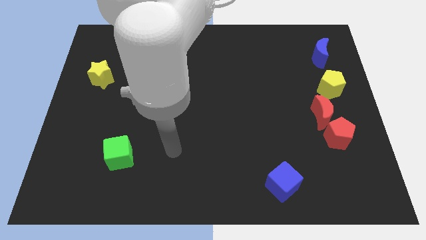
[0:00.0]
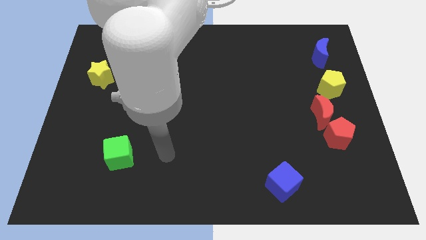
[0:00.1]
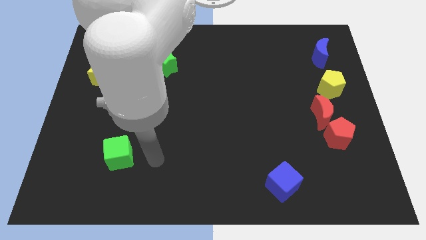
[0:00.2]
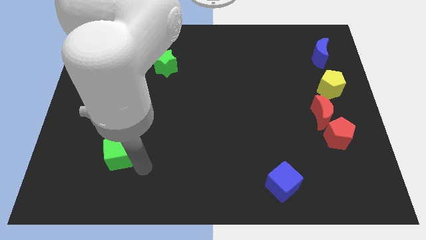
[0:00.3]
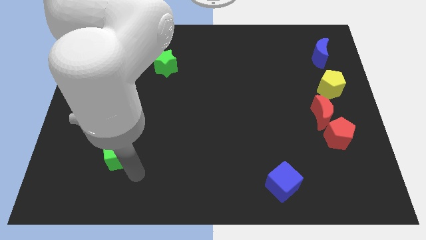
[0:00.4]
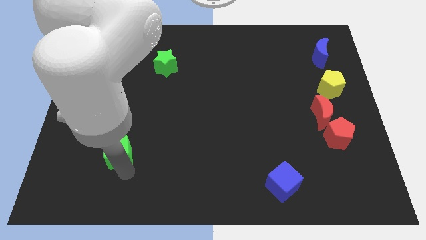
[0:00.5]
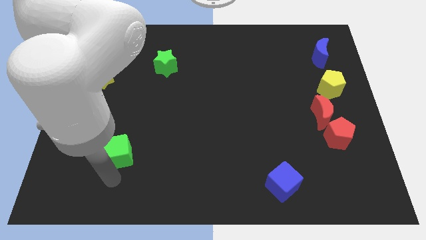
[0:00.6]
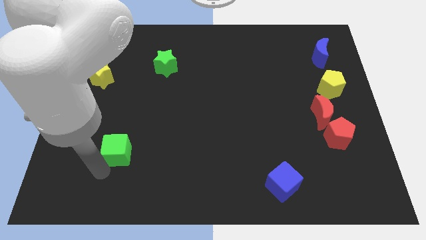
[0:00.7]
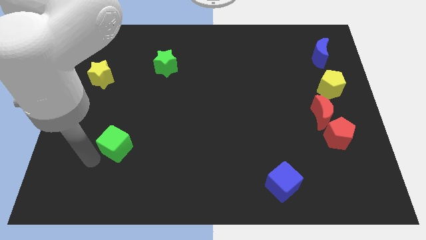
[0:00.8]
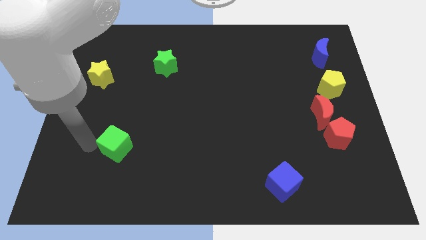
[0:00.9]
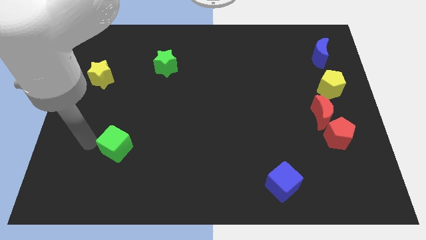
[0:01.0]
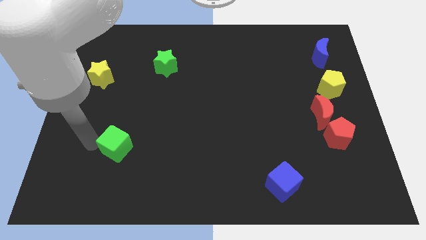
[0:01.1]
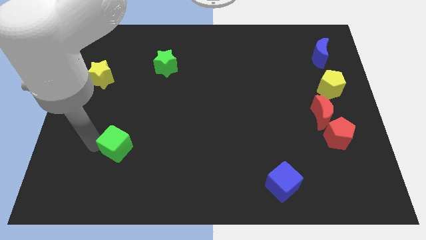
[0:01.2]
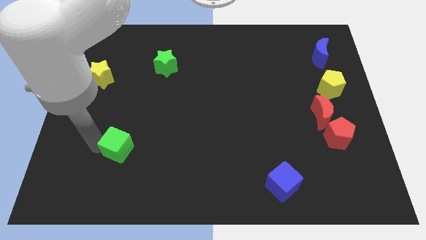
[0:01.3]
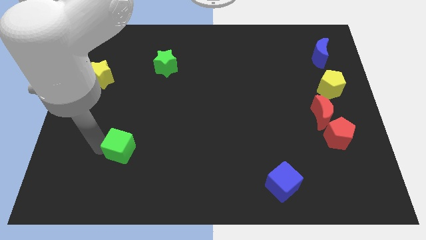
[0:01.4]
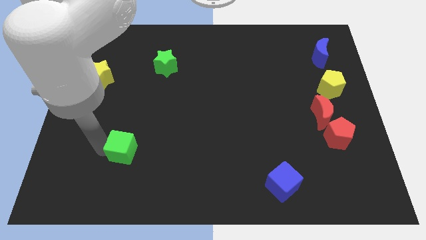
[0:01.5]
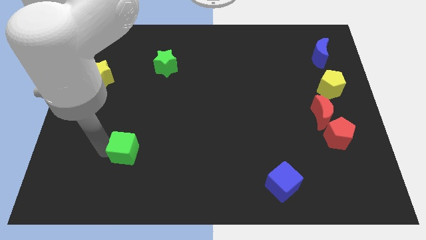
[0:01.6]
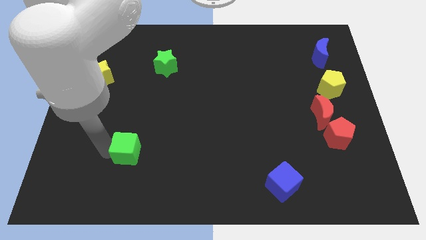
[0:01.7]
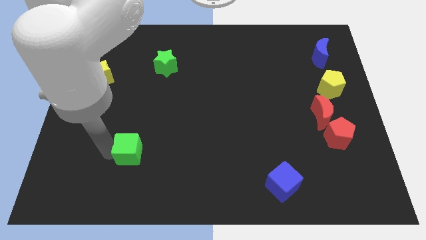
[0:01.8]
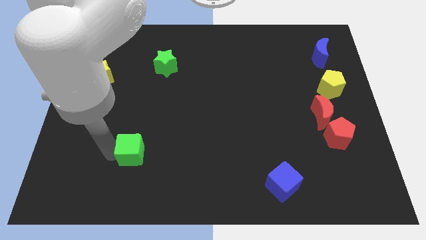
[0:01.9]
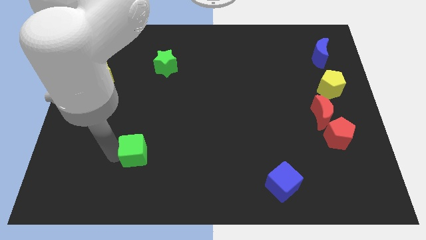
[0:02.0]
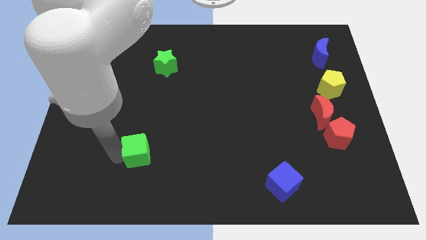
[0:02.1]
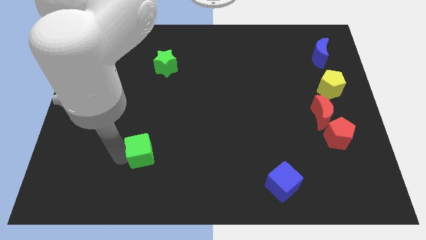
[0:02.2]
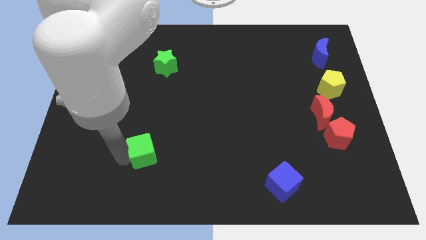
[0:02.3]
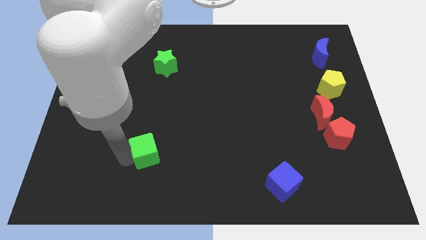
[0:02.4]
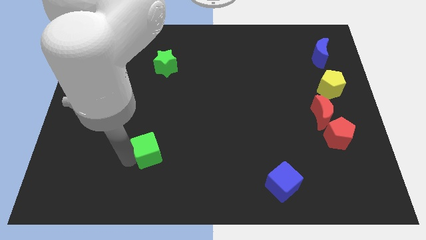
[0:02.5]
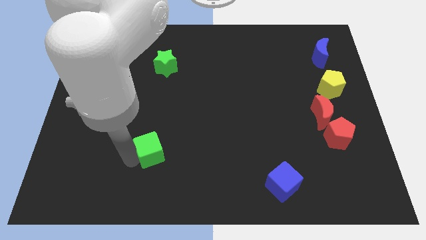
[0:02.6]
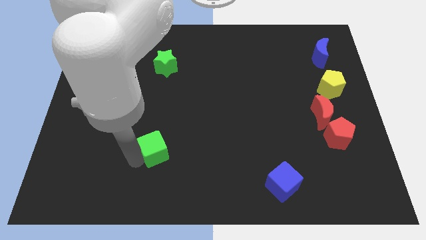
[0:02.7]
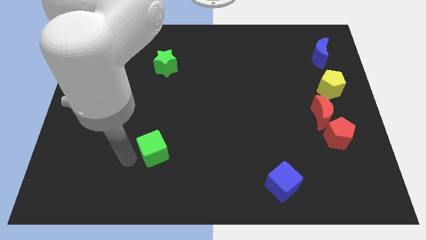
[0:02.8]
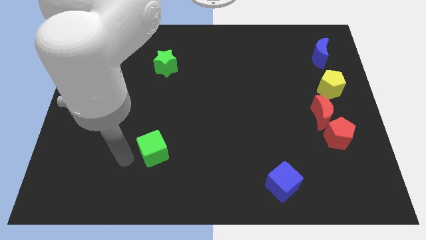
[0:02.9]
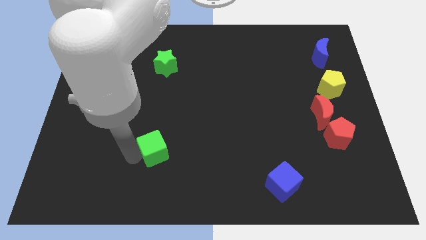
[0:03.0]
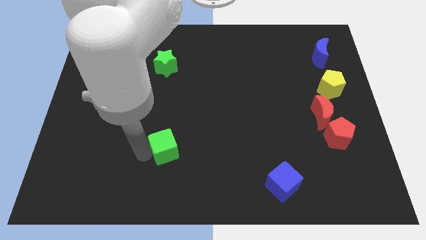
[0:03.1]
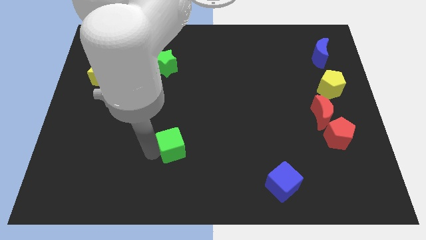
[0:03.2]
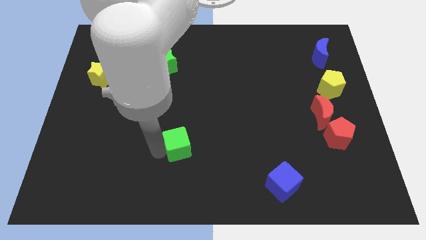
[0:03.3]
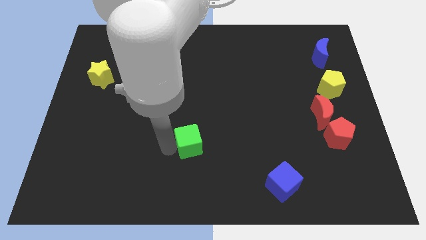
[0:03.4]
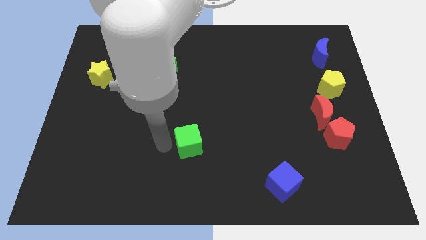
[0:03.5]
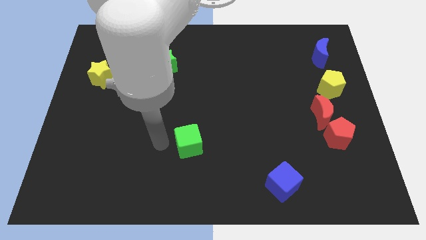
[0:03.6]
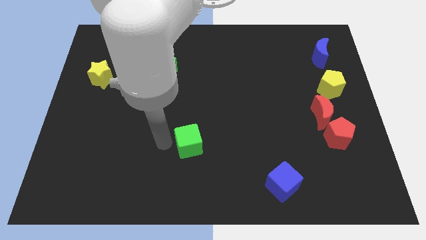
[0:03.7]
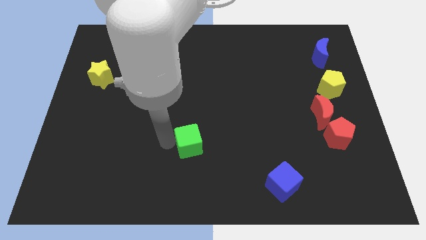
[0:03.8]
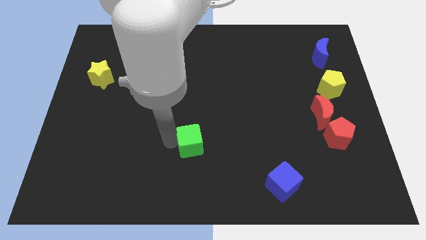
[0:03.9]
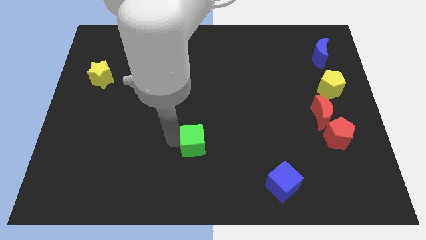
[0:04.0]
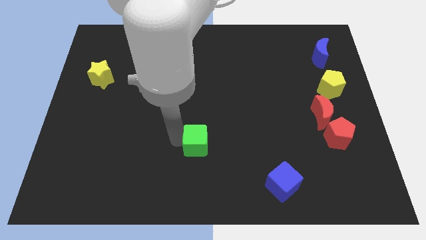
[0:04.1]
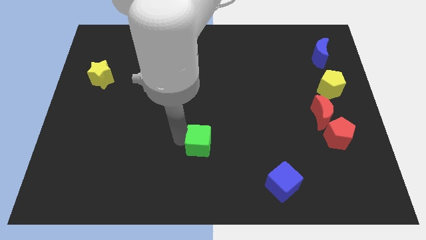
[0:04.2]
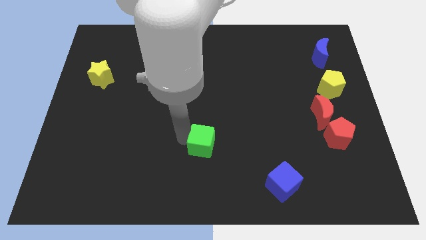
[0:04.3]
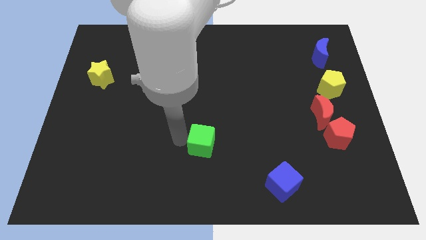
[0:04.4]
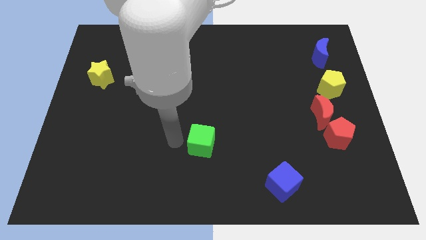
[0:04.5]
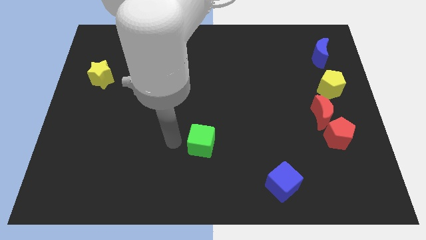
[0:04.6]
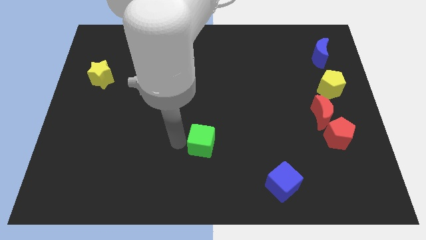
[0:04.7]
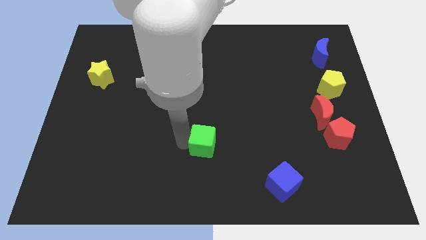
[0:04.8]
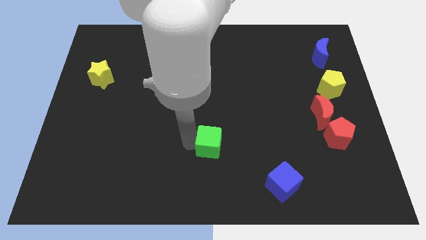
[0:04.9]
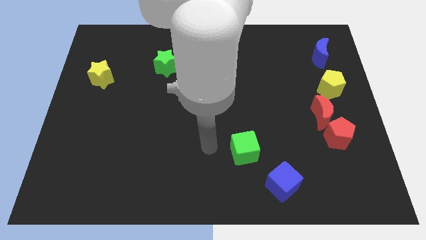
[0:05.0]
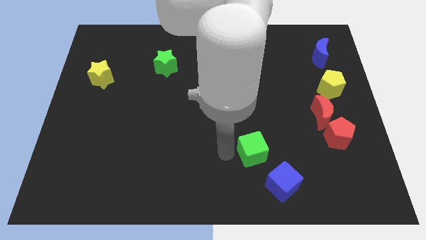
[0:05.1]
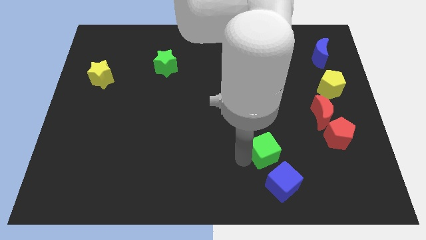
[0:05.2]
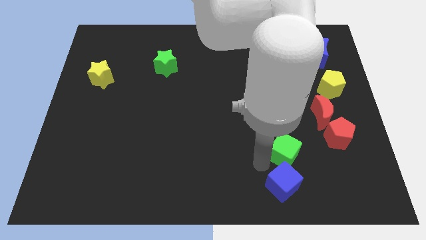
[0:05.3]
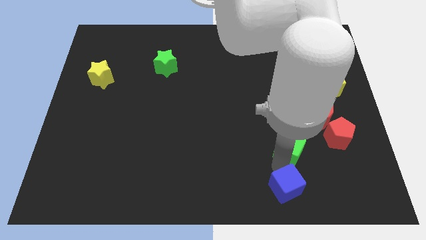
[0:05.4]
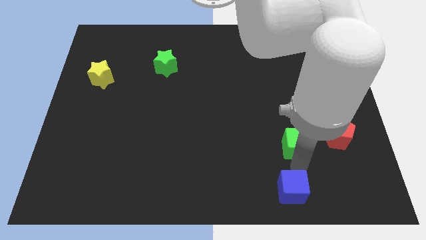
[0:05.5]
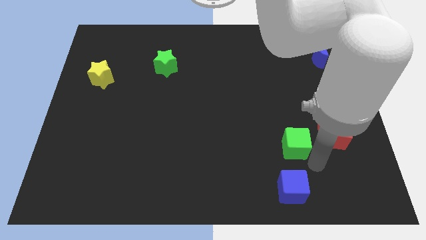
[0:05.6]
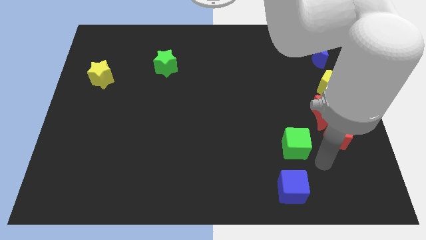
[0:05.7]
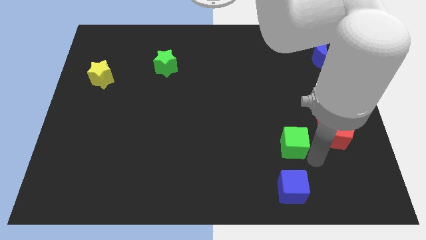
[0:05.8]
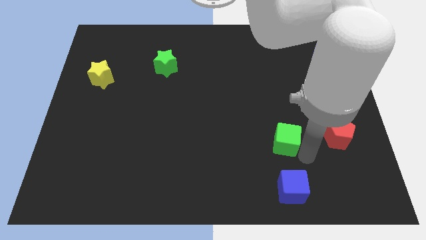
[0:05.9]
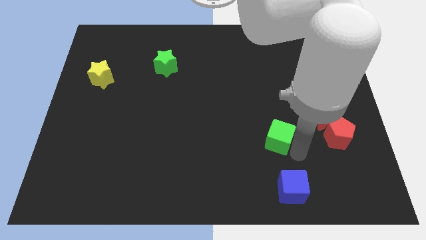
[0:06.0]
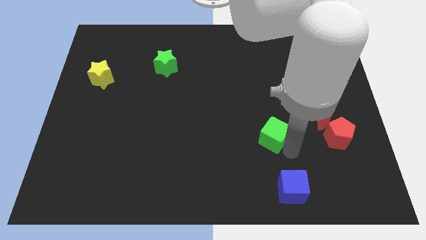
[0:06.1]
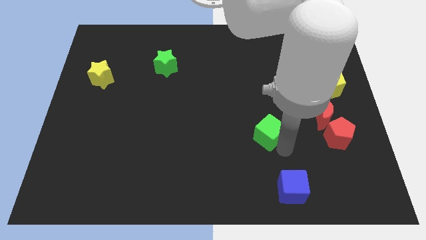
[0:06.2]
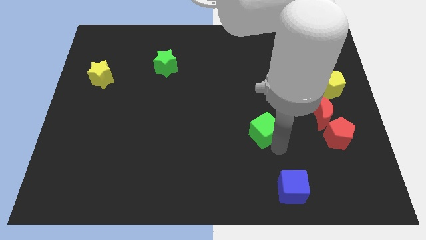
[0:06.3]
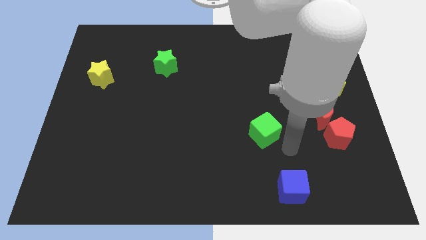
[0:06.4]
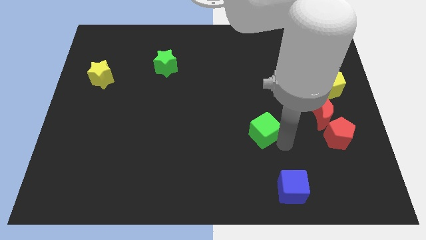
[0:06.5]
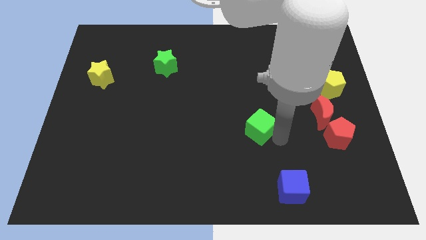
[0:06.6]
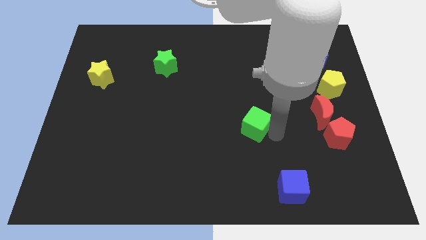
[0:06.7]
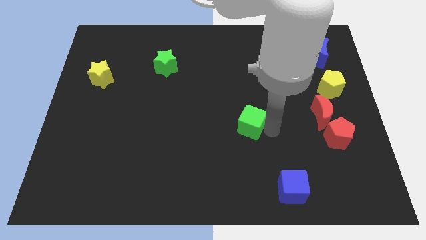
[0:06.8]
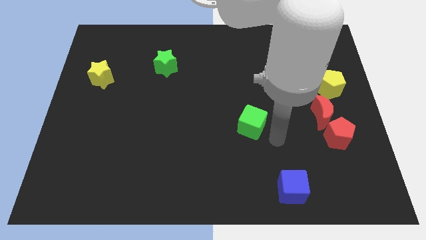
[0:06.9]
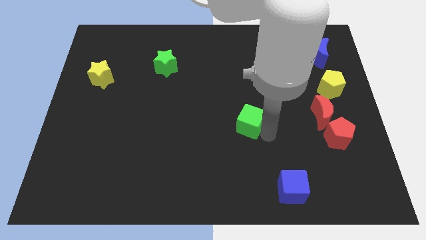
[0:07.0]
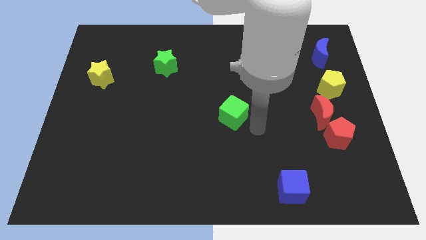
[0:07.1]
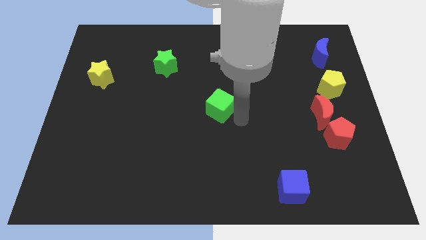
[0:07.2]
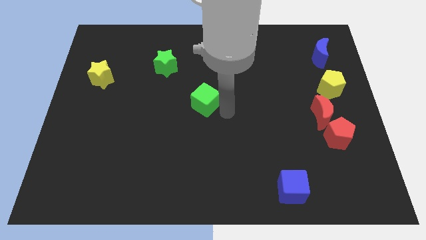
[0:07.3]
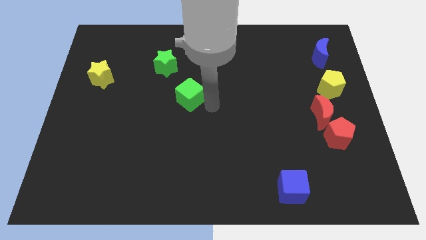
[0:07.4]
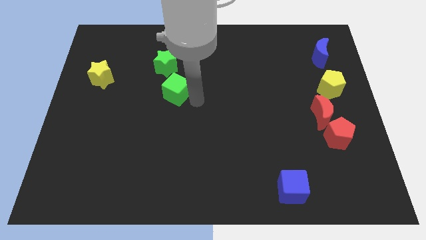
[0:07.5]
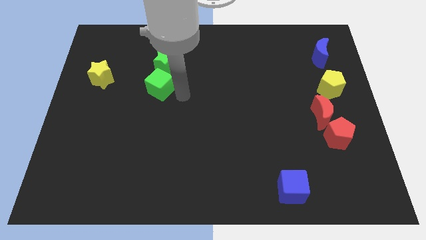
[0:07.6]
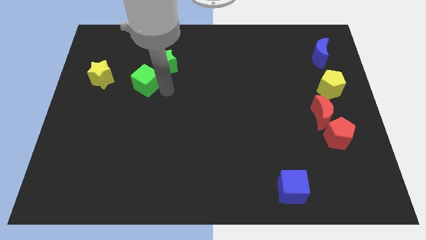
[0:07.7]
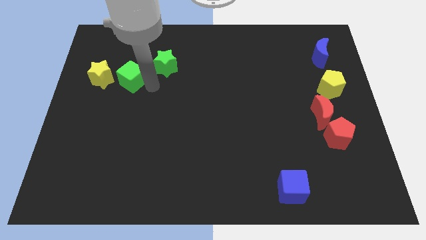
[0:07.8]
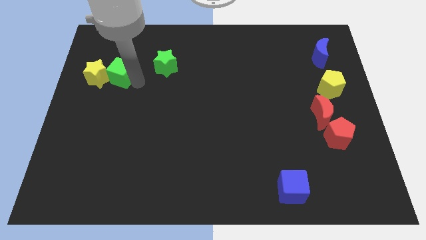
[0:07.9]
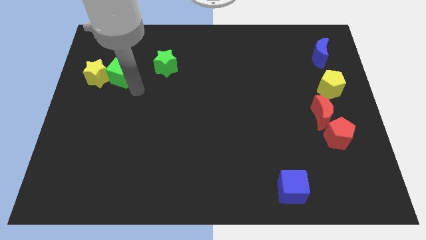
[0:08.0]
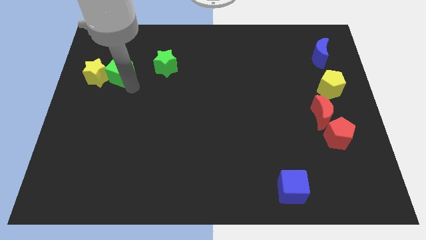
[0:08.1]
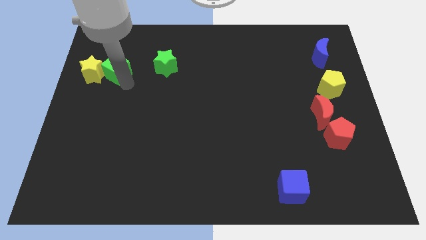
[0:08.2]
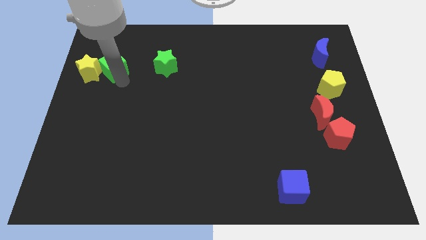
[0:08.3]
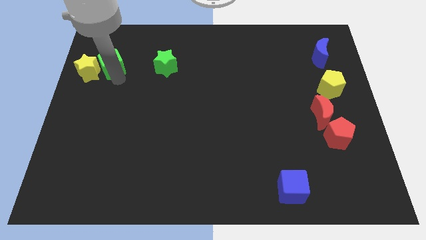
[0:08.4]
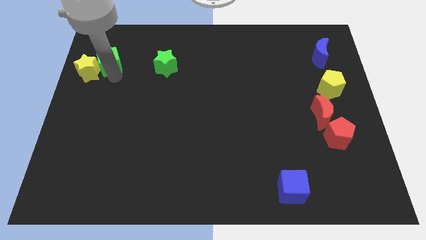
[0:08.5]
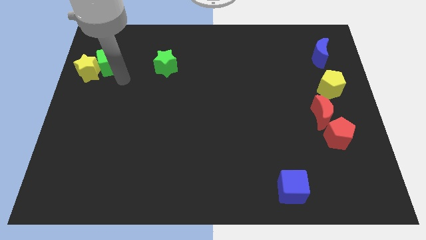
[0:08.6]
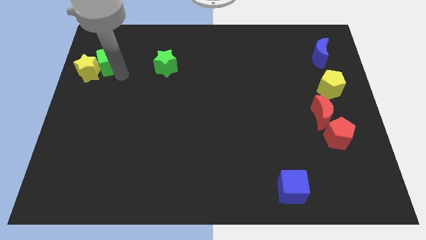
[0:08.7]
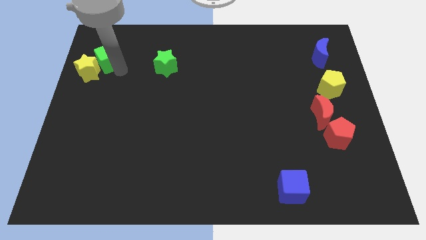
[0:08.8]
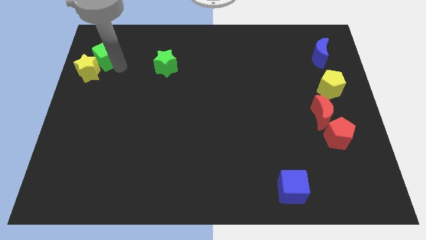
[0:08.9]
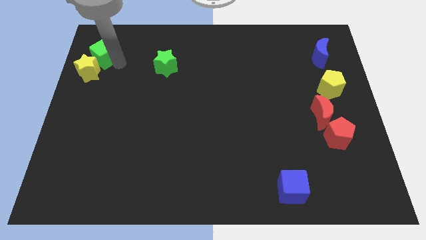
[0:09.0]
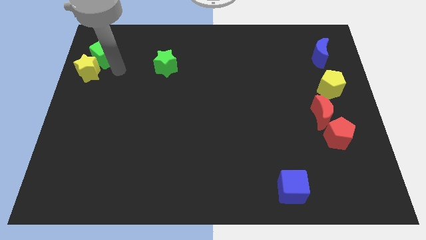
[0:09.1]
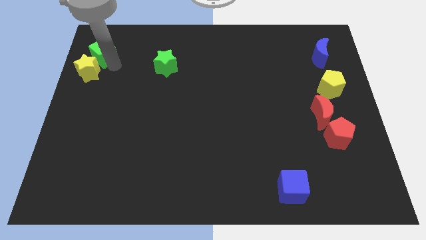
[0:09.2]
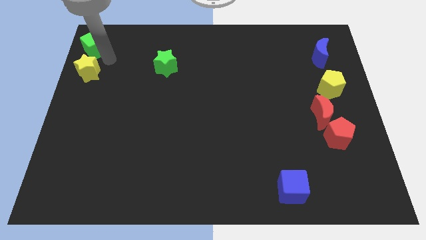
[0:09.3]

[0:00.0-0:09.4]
put the green cube to the top left
